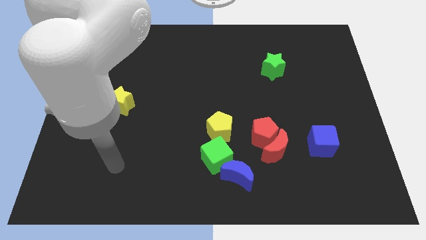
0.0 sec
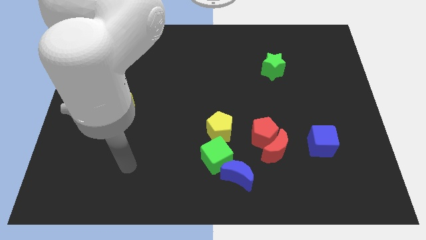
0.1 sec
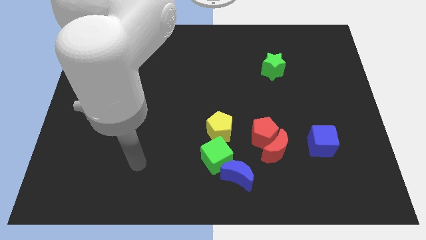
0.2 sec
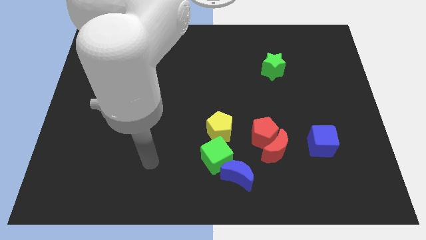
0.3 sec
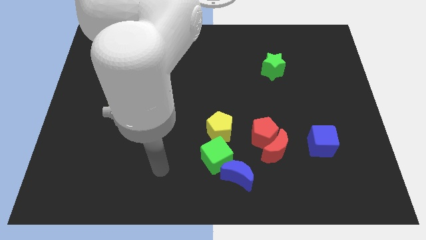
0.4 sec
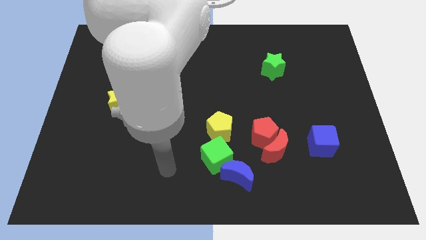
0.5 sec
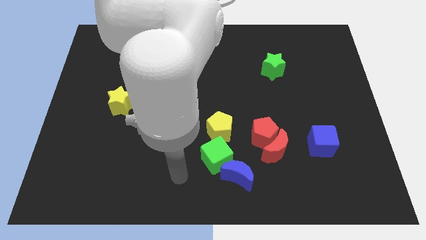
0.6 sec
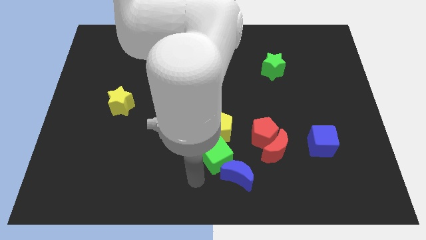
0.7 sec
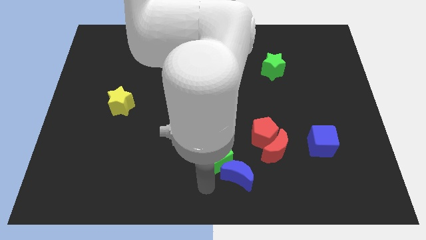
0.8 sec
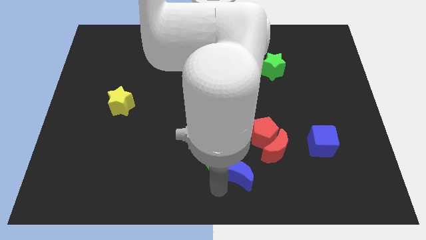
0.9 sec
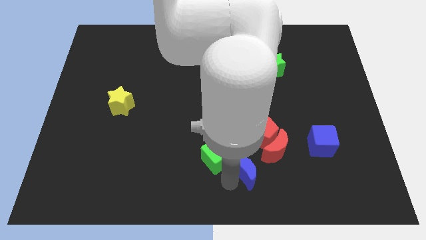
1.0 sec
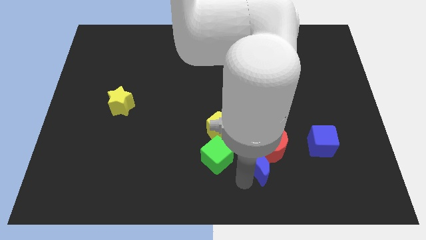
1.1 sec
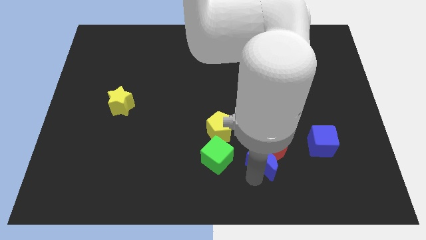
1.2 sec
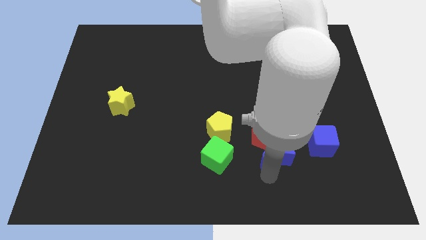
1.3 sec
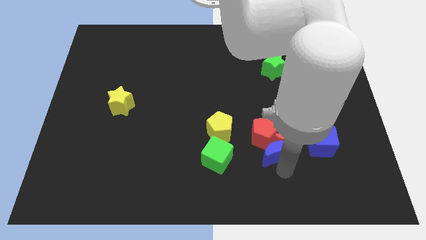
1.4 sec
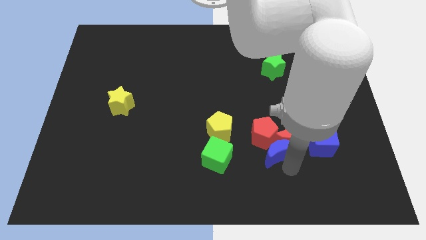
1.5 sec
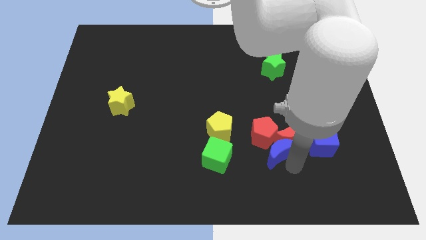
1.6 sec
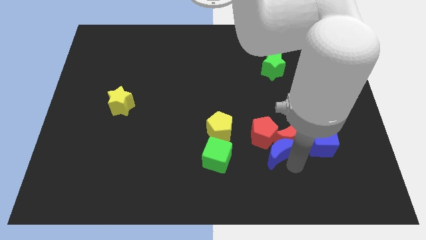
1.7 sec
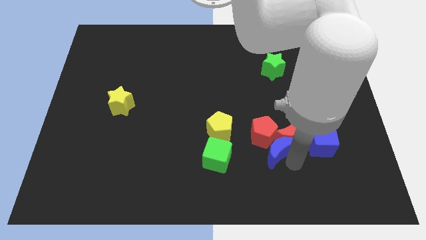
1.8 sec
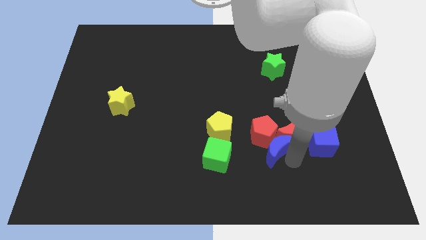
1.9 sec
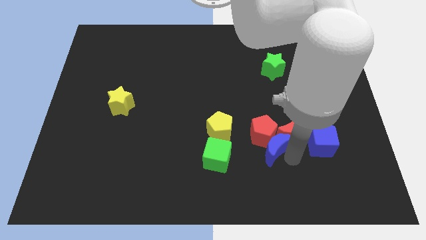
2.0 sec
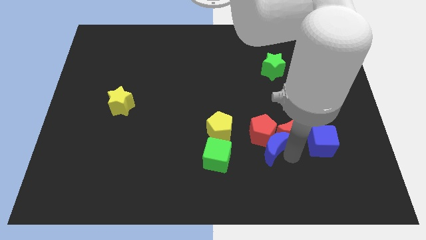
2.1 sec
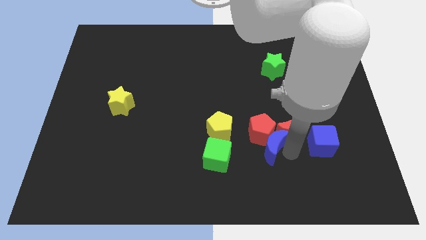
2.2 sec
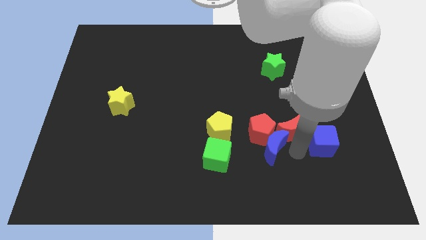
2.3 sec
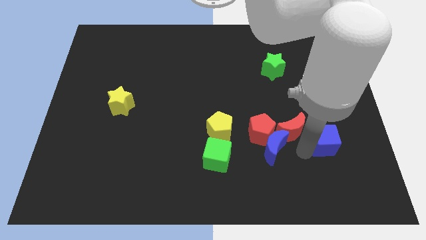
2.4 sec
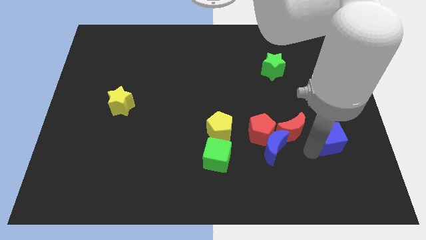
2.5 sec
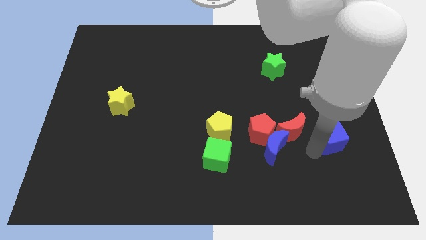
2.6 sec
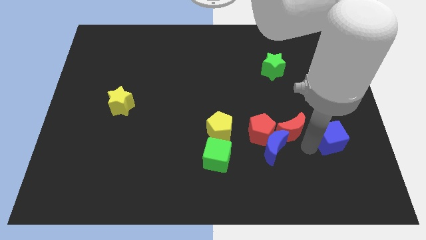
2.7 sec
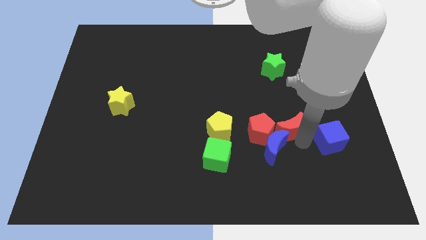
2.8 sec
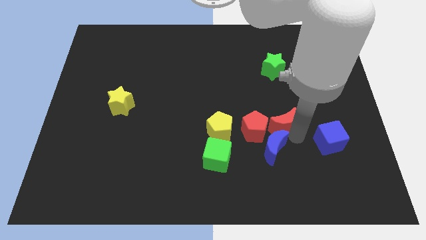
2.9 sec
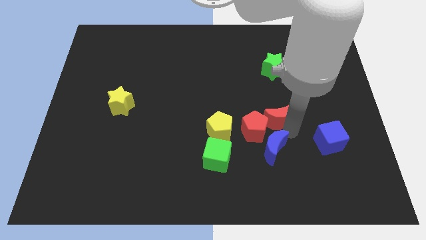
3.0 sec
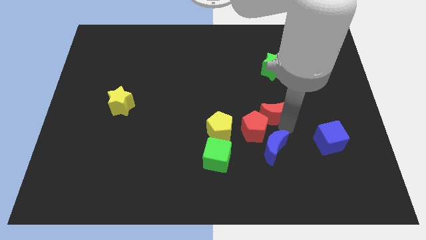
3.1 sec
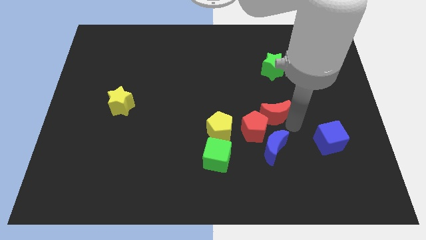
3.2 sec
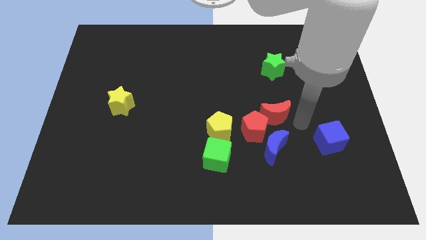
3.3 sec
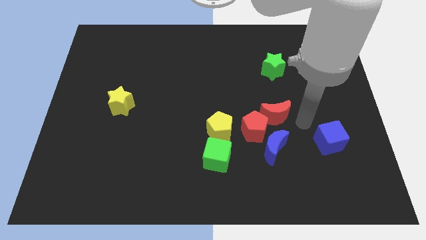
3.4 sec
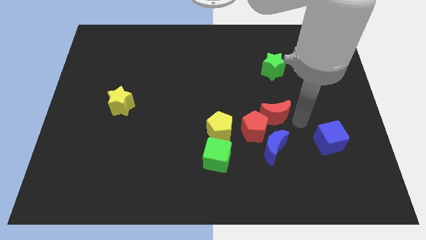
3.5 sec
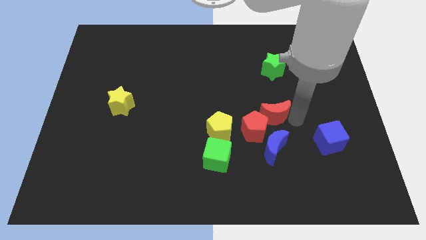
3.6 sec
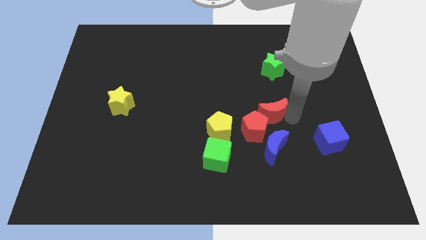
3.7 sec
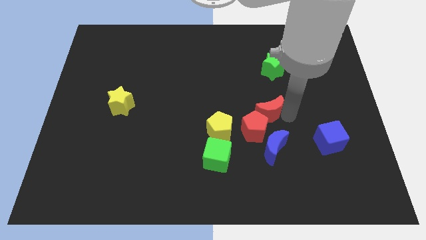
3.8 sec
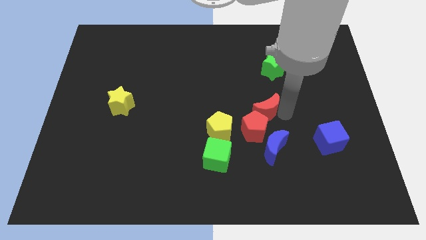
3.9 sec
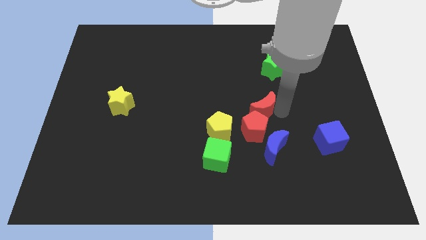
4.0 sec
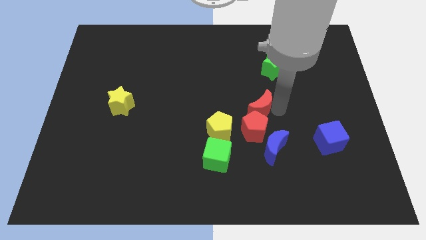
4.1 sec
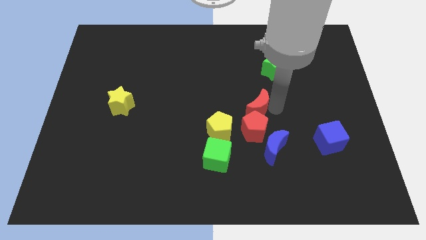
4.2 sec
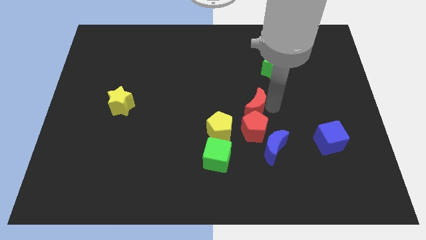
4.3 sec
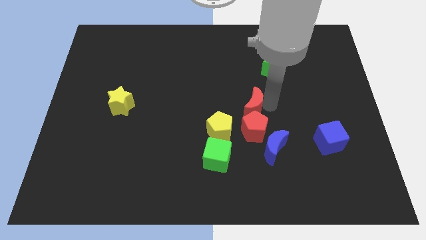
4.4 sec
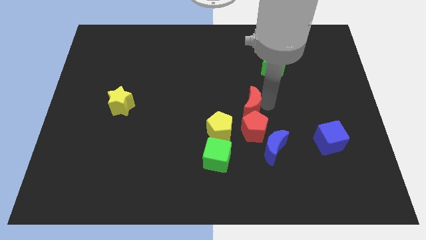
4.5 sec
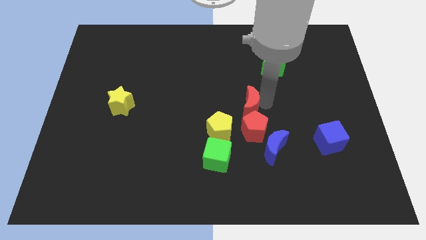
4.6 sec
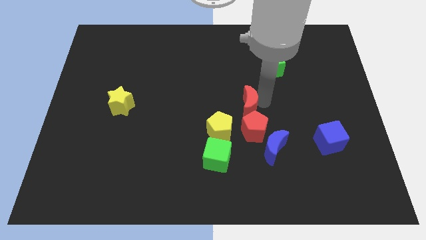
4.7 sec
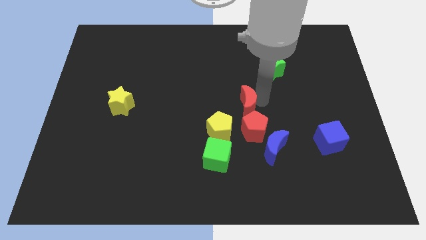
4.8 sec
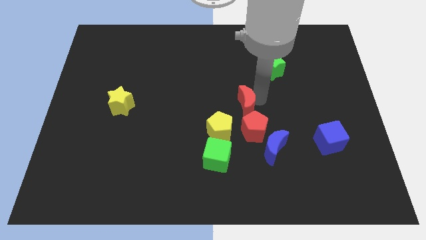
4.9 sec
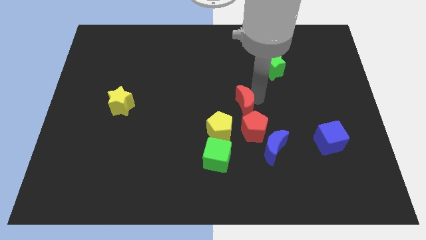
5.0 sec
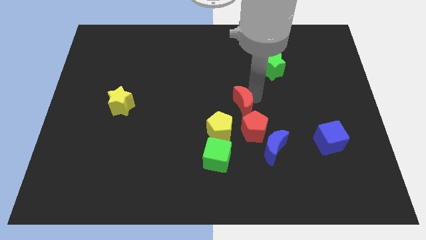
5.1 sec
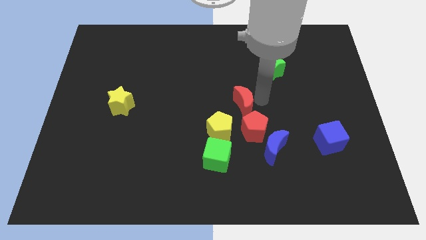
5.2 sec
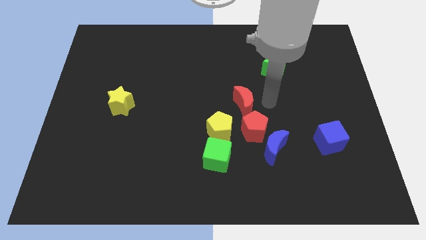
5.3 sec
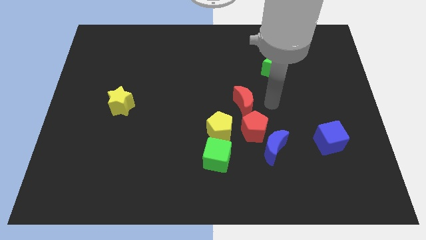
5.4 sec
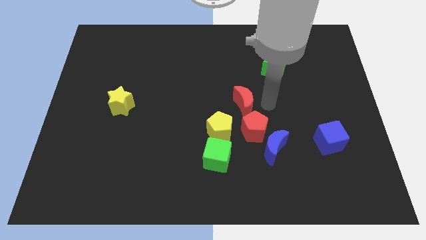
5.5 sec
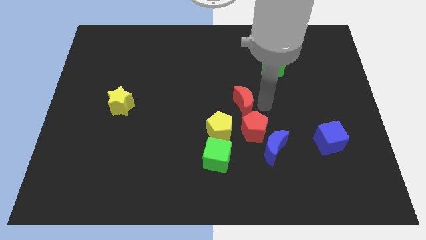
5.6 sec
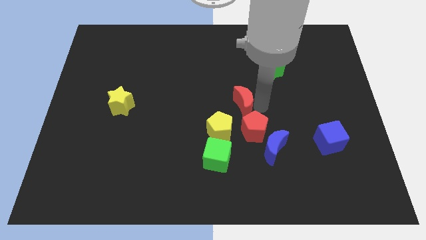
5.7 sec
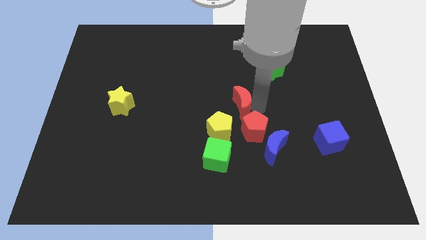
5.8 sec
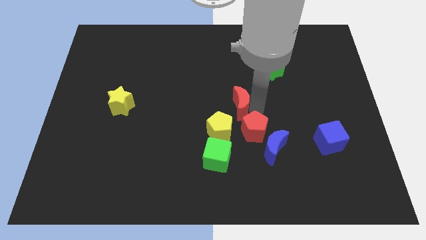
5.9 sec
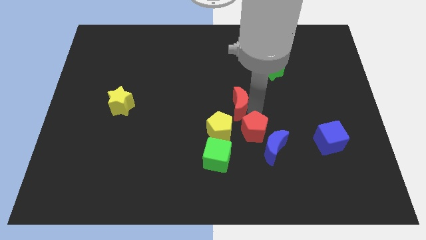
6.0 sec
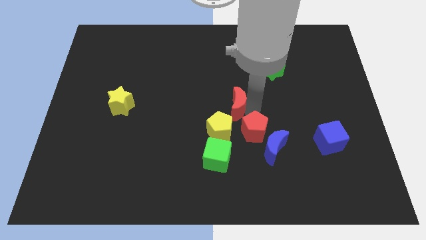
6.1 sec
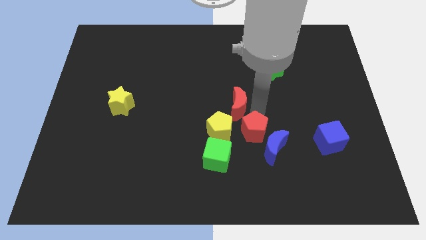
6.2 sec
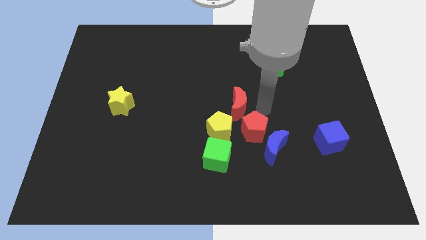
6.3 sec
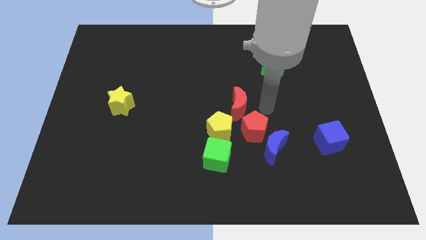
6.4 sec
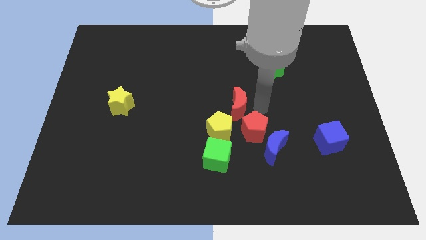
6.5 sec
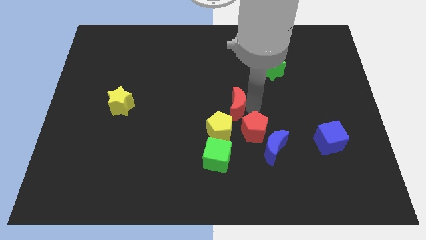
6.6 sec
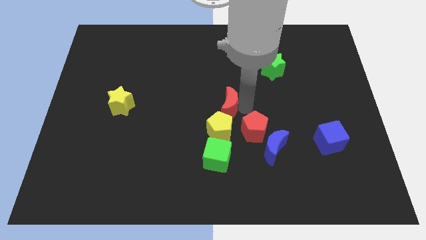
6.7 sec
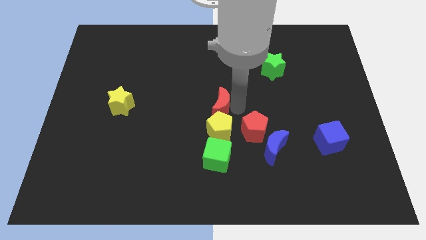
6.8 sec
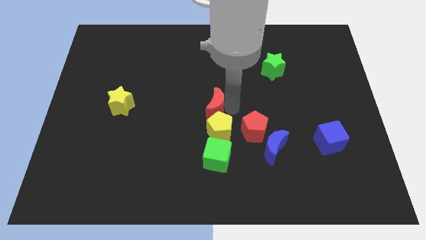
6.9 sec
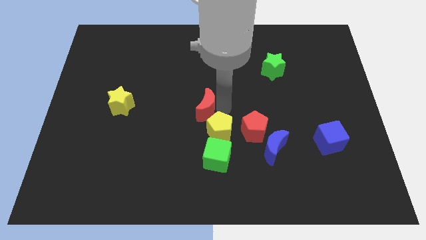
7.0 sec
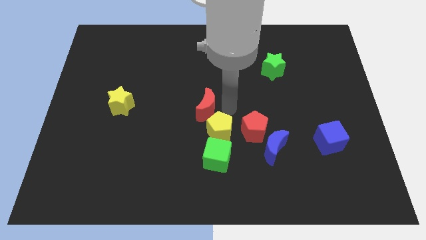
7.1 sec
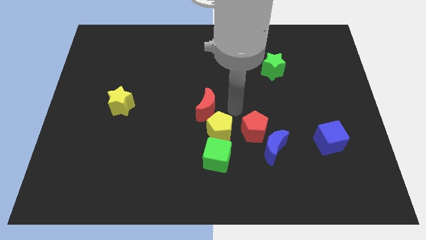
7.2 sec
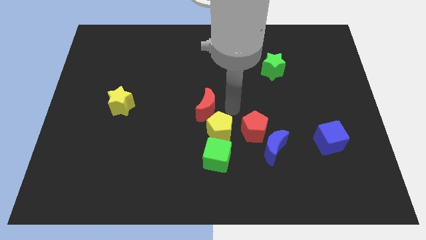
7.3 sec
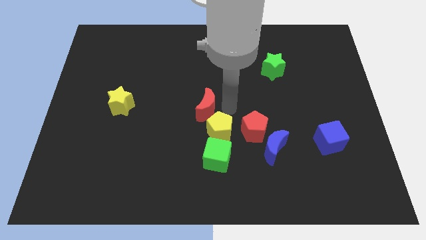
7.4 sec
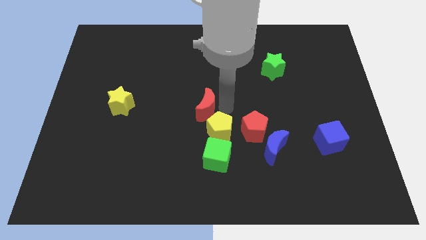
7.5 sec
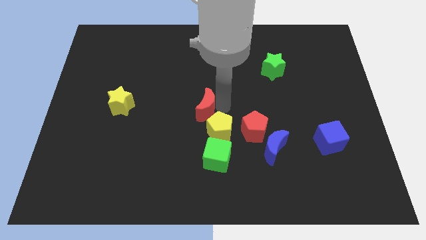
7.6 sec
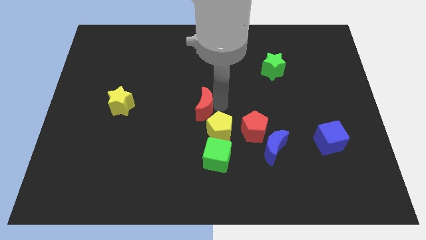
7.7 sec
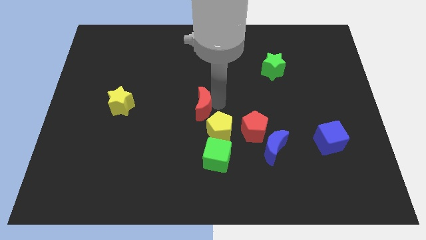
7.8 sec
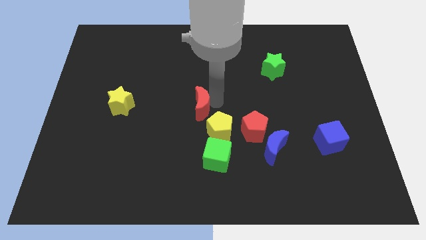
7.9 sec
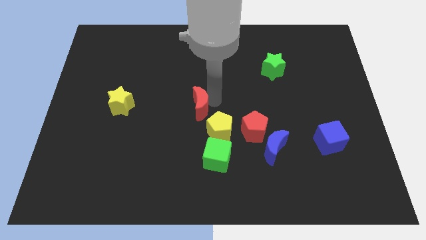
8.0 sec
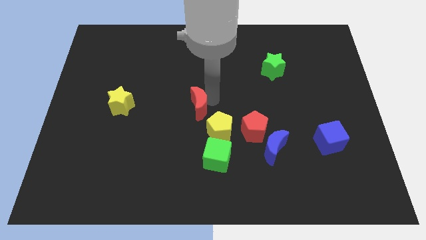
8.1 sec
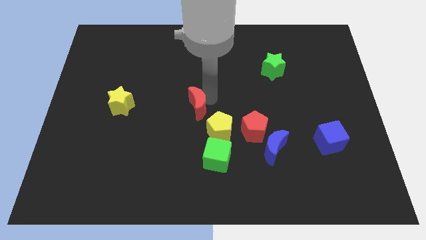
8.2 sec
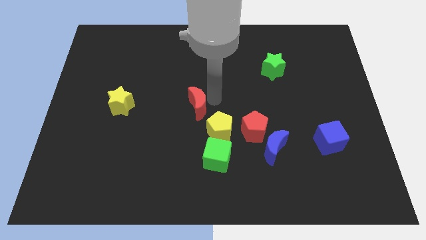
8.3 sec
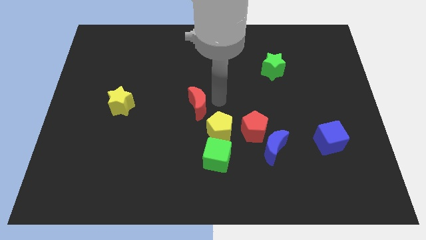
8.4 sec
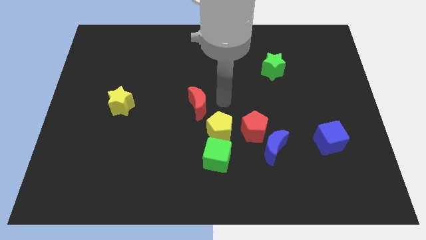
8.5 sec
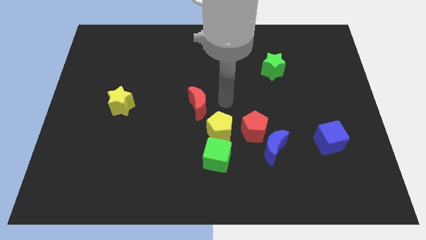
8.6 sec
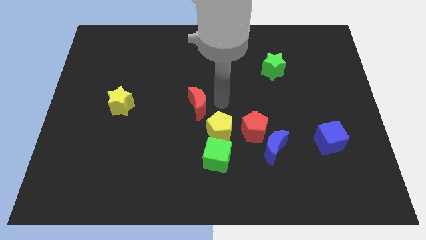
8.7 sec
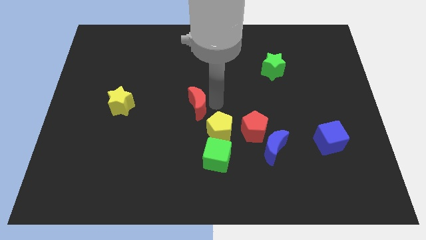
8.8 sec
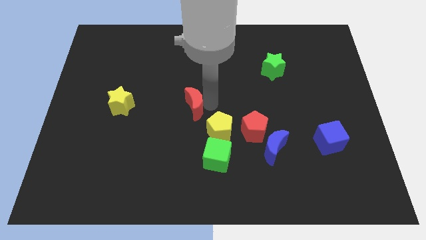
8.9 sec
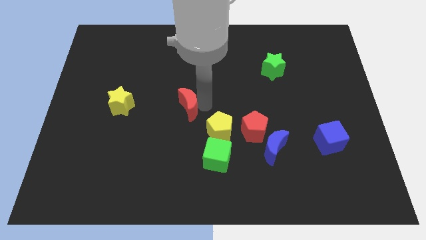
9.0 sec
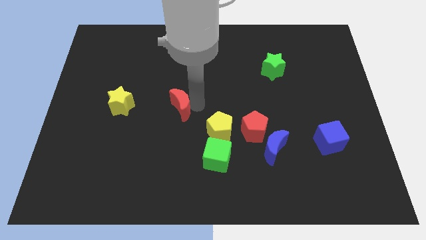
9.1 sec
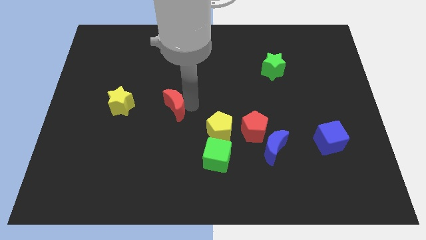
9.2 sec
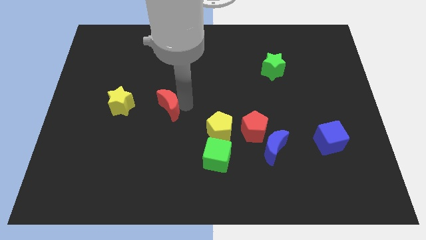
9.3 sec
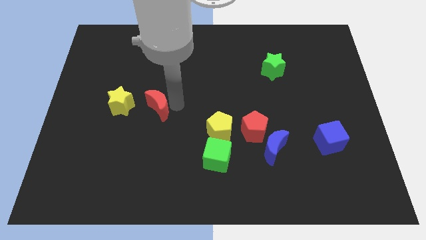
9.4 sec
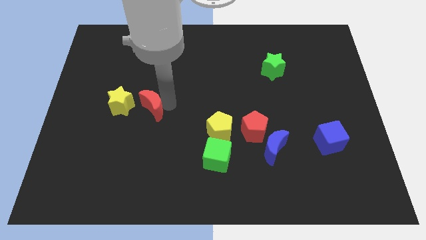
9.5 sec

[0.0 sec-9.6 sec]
move the red moon to the bottom right of the yellow star
